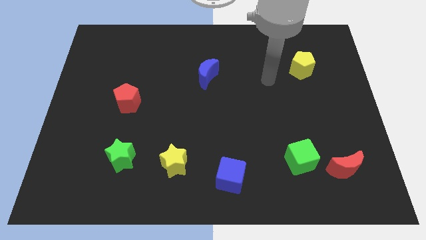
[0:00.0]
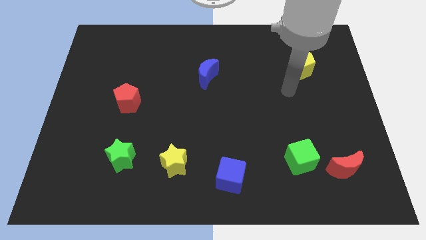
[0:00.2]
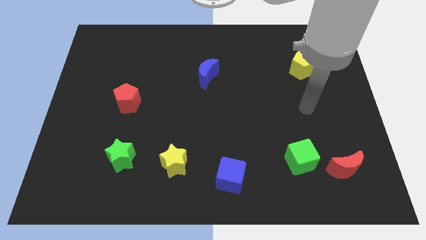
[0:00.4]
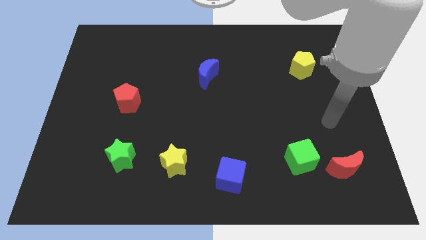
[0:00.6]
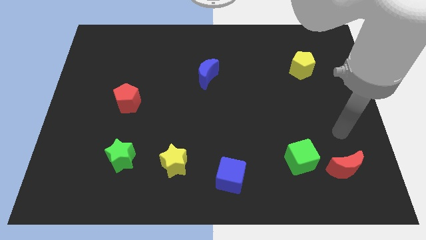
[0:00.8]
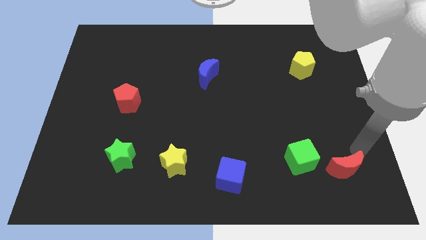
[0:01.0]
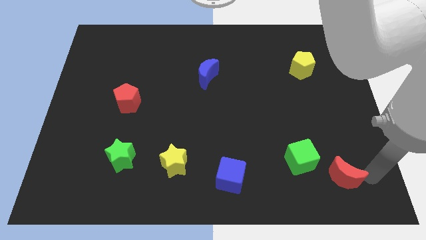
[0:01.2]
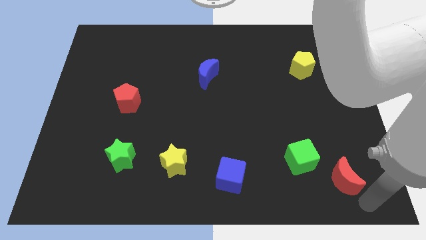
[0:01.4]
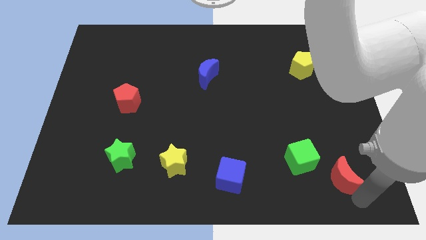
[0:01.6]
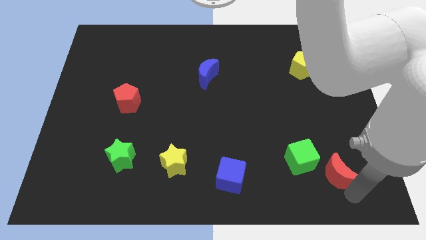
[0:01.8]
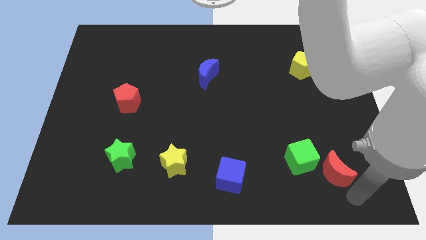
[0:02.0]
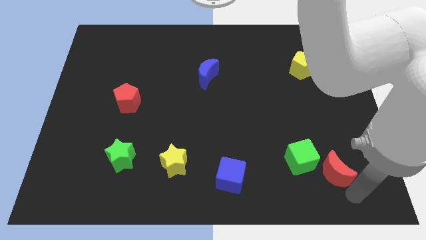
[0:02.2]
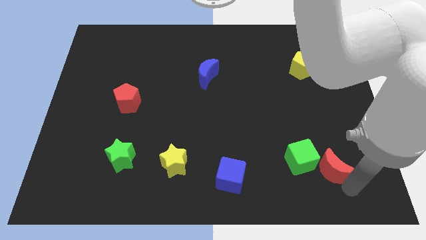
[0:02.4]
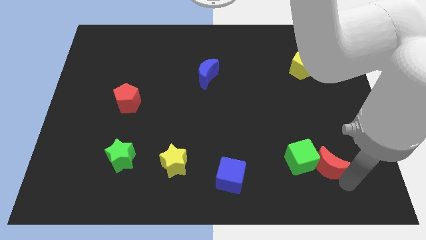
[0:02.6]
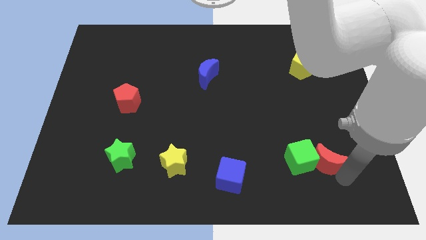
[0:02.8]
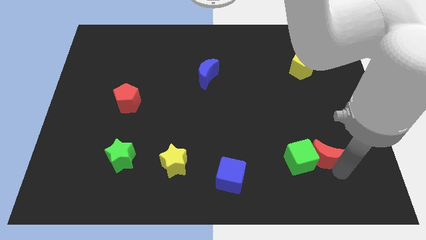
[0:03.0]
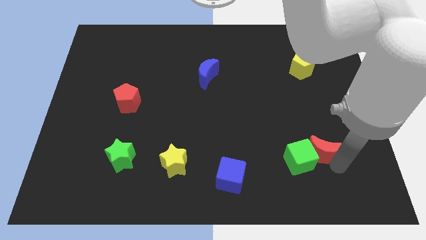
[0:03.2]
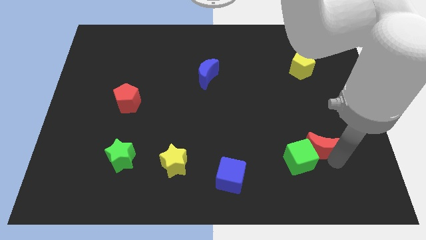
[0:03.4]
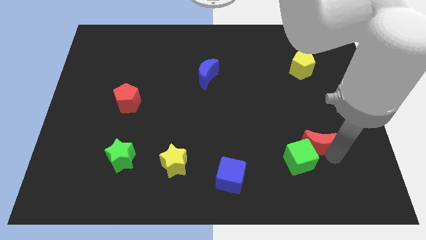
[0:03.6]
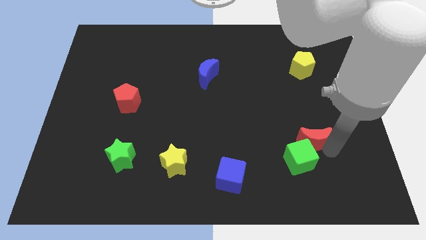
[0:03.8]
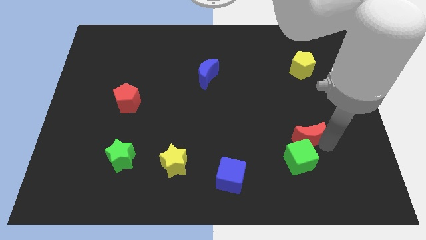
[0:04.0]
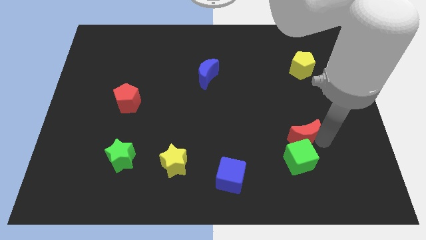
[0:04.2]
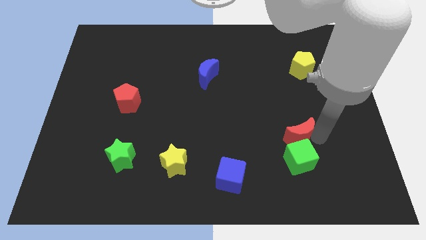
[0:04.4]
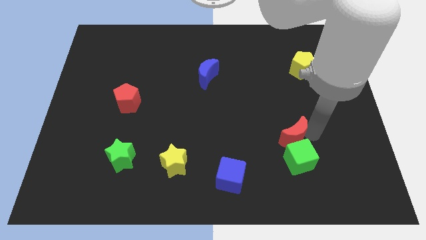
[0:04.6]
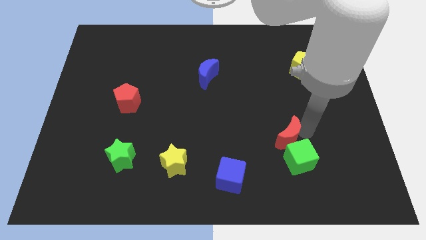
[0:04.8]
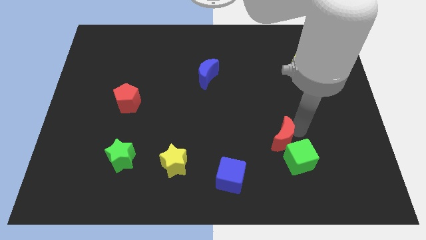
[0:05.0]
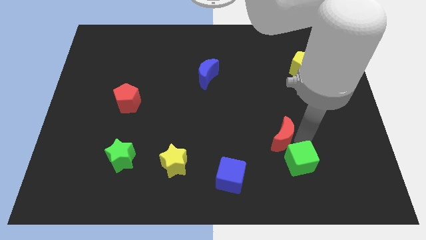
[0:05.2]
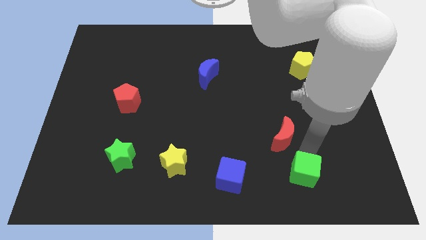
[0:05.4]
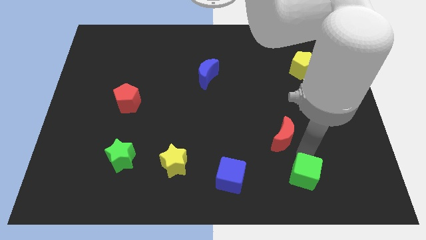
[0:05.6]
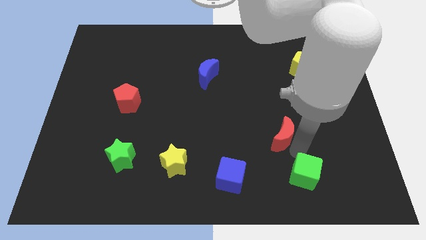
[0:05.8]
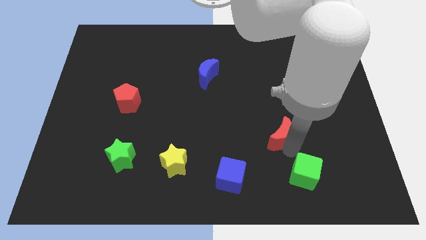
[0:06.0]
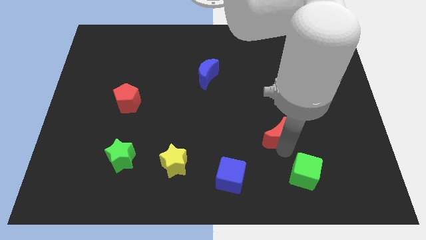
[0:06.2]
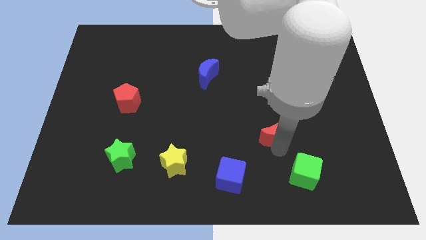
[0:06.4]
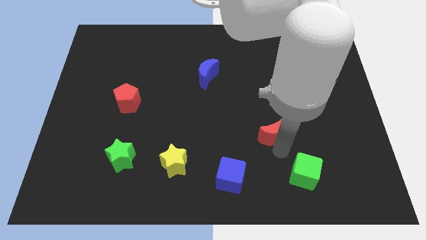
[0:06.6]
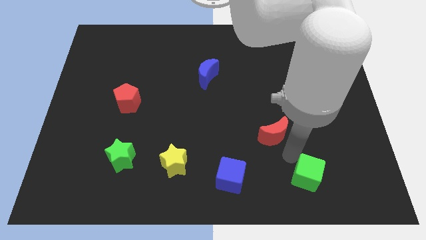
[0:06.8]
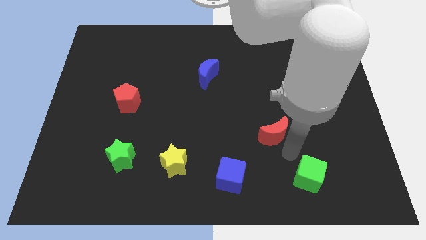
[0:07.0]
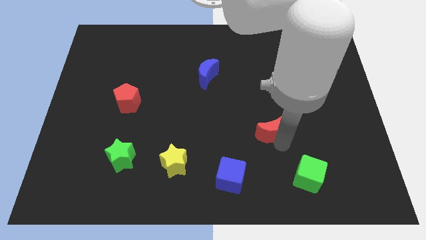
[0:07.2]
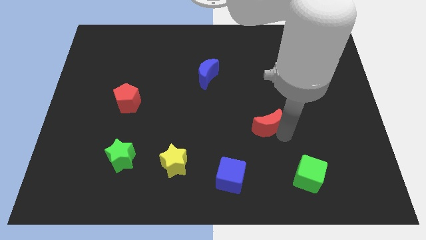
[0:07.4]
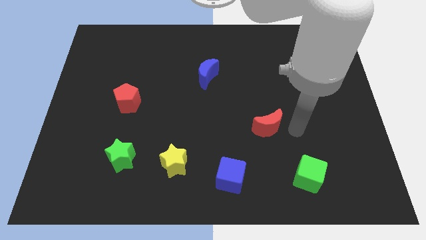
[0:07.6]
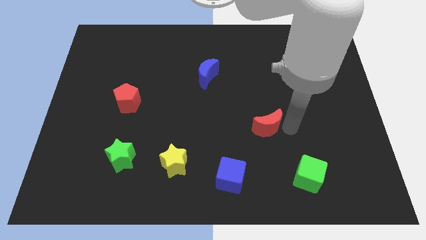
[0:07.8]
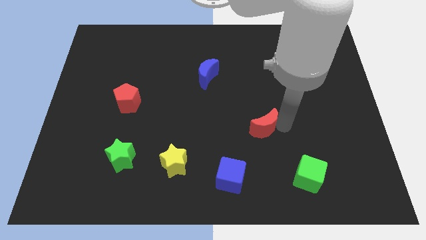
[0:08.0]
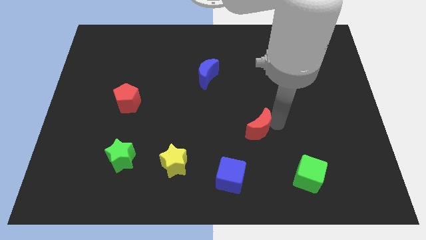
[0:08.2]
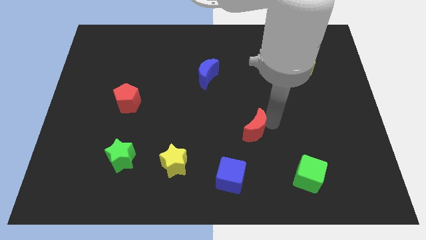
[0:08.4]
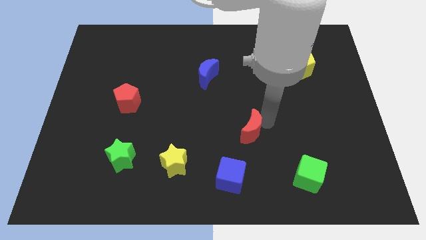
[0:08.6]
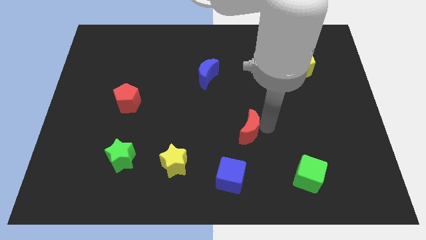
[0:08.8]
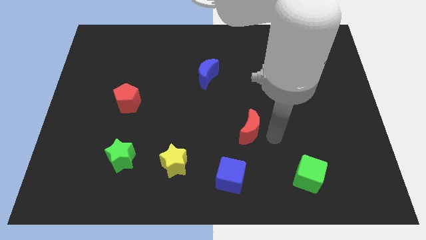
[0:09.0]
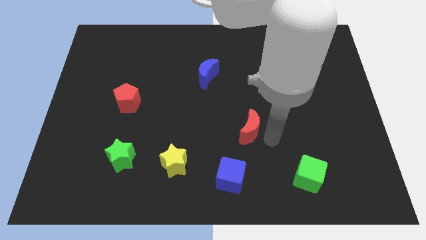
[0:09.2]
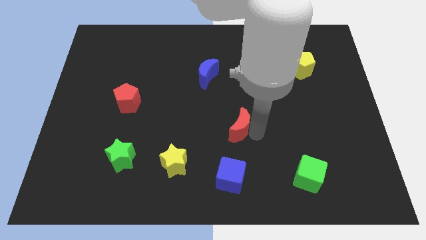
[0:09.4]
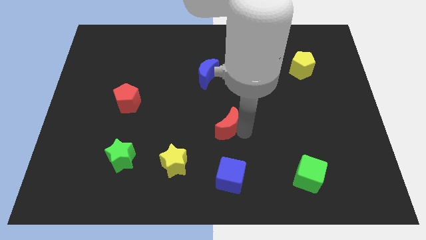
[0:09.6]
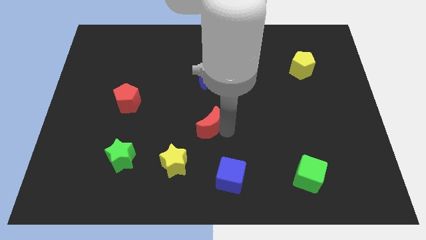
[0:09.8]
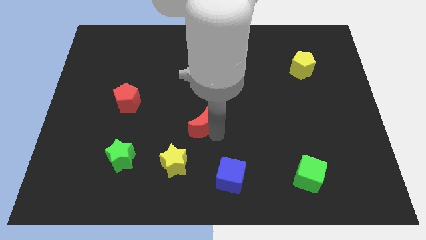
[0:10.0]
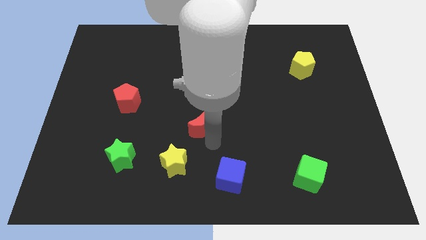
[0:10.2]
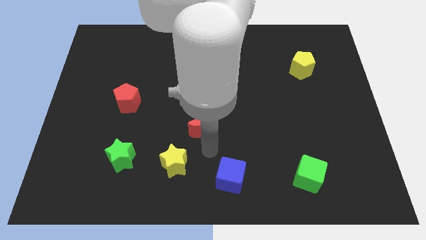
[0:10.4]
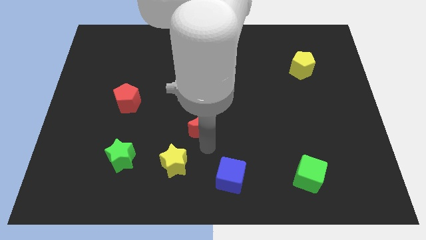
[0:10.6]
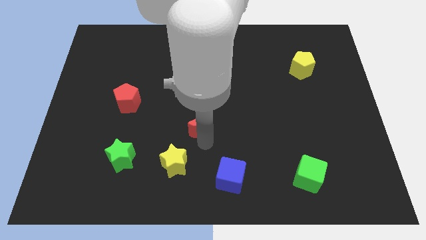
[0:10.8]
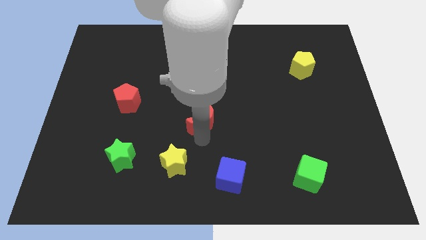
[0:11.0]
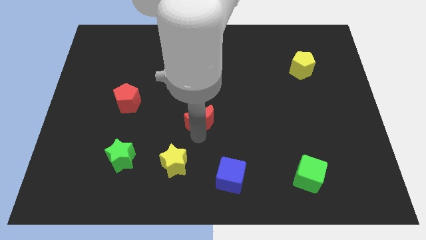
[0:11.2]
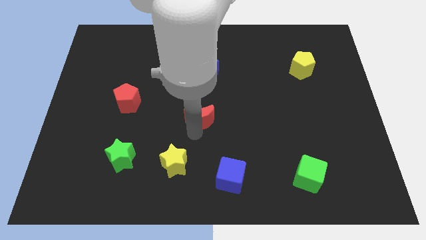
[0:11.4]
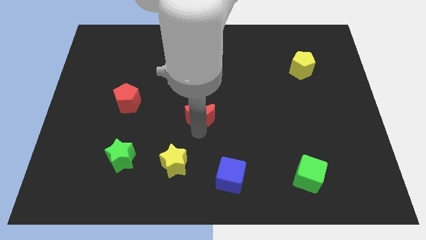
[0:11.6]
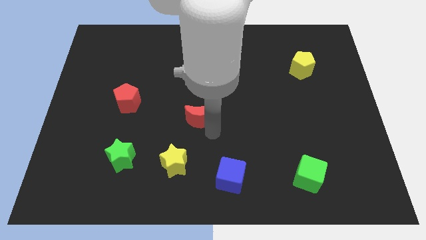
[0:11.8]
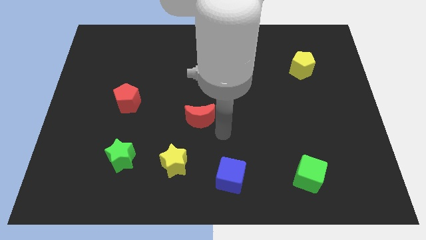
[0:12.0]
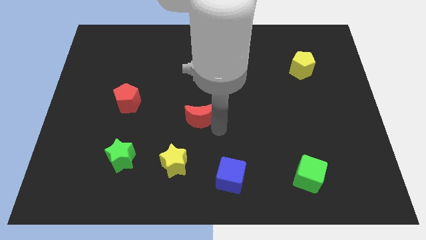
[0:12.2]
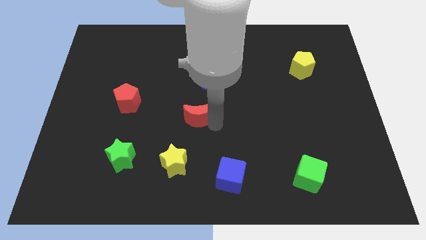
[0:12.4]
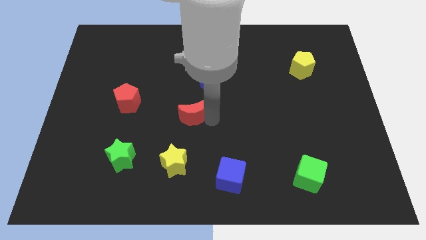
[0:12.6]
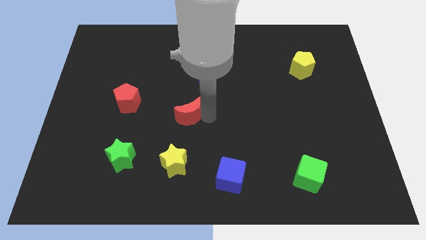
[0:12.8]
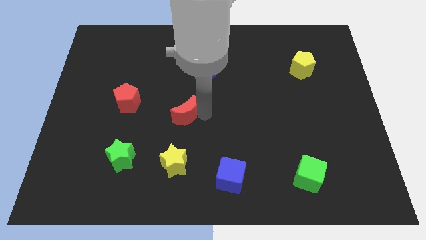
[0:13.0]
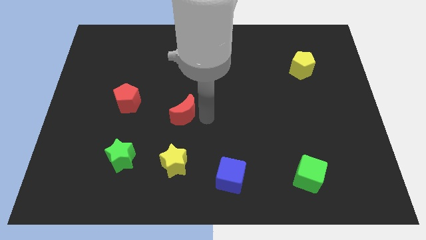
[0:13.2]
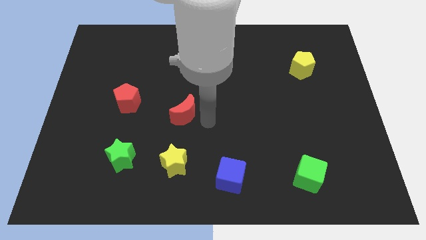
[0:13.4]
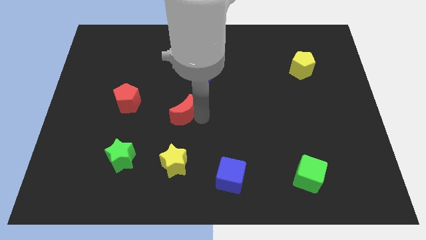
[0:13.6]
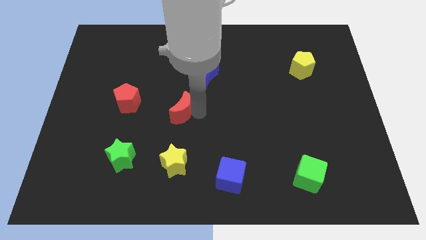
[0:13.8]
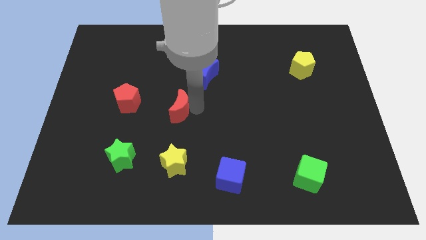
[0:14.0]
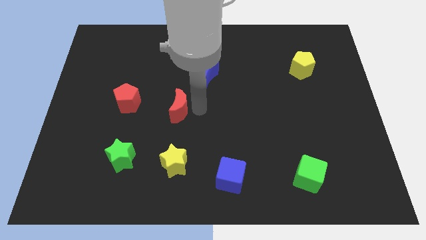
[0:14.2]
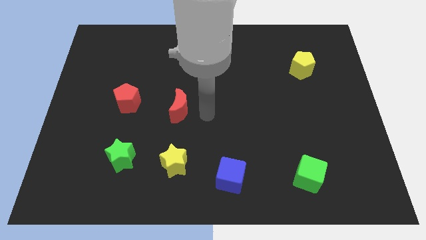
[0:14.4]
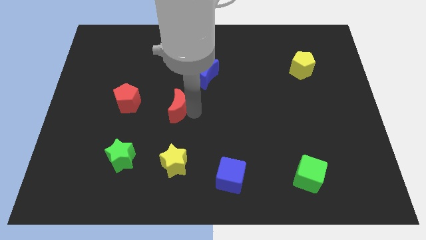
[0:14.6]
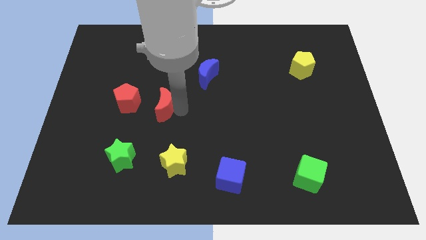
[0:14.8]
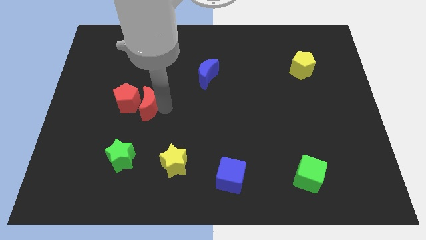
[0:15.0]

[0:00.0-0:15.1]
slide the red moon next to the red pentagon
